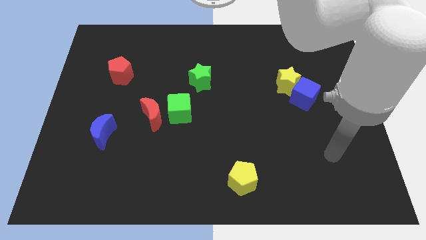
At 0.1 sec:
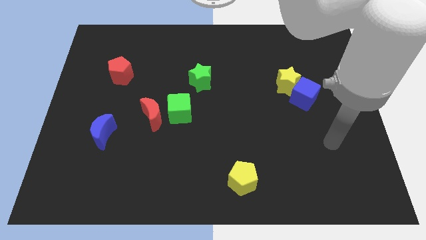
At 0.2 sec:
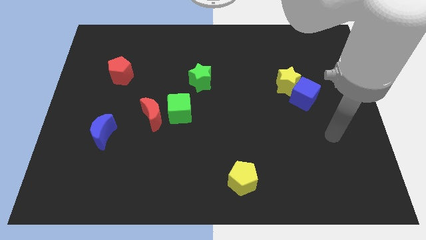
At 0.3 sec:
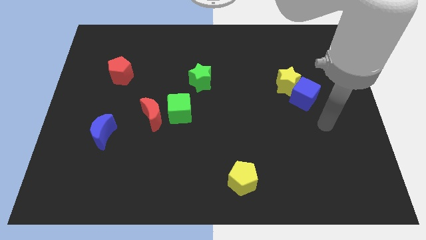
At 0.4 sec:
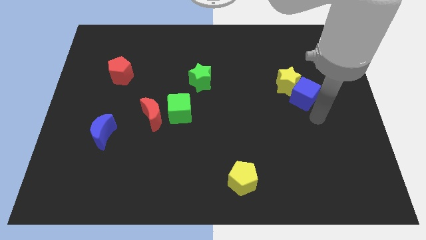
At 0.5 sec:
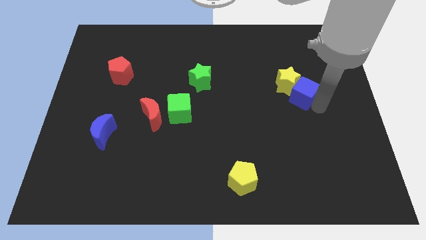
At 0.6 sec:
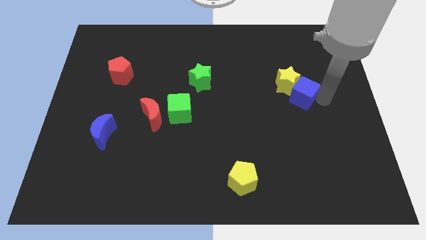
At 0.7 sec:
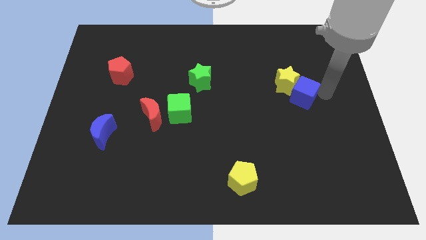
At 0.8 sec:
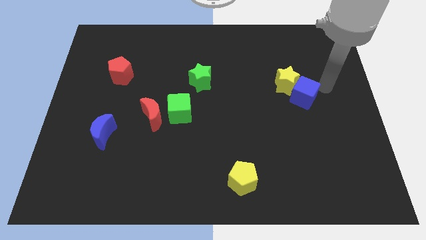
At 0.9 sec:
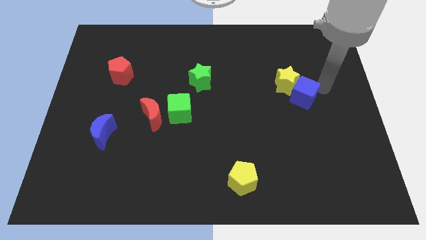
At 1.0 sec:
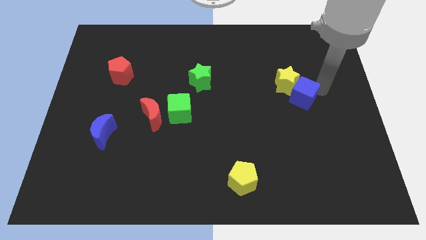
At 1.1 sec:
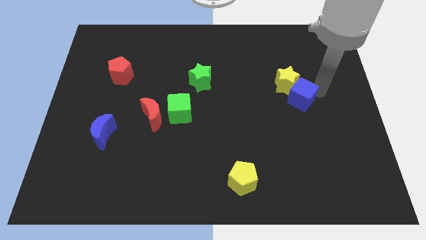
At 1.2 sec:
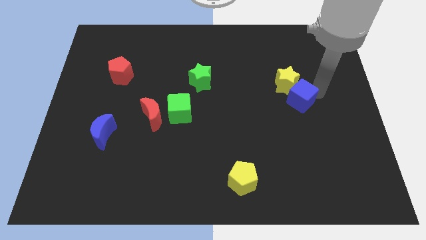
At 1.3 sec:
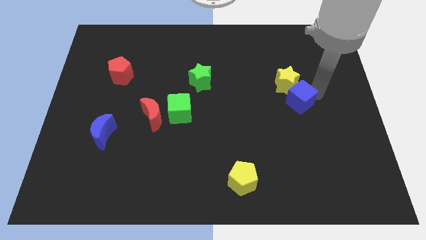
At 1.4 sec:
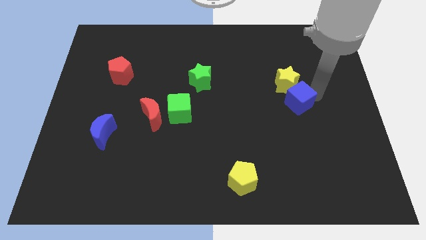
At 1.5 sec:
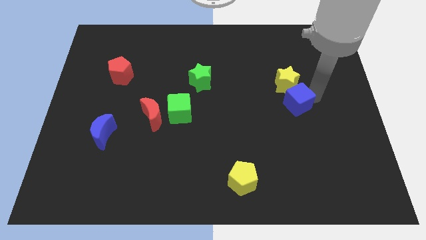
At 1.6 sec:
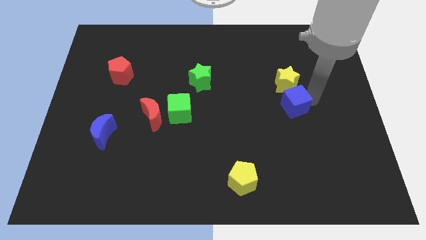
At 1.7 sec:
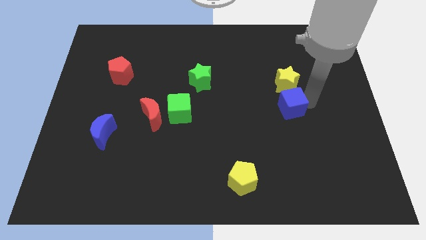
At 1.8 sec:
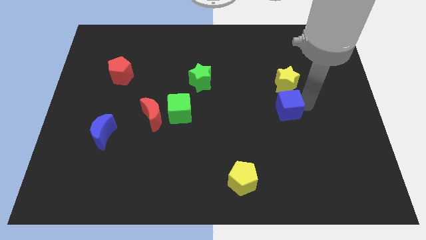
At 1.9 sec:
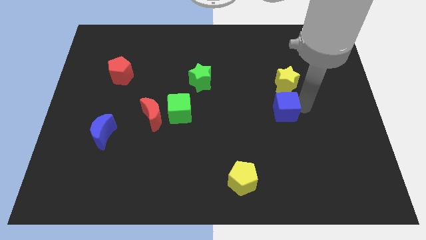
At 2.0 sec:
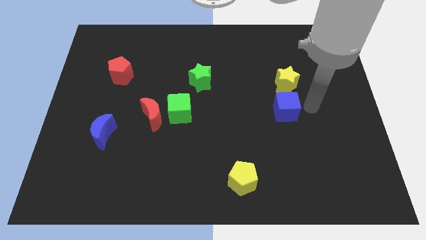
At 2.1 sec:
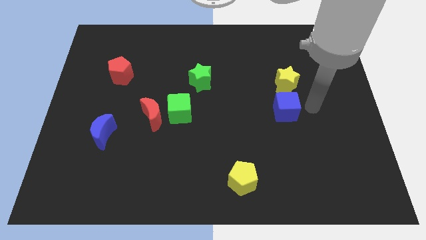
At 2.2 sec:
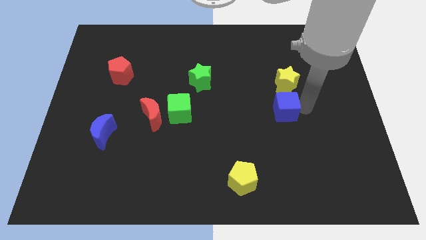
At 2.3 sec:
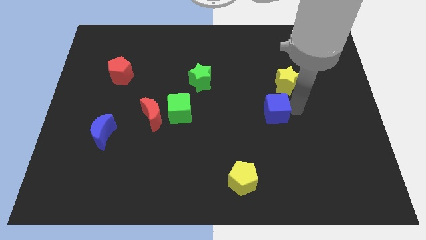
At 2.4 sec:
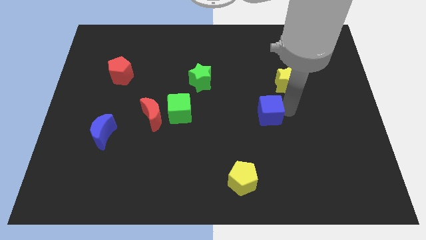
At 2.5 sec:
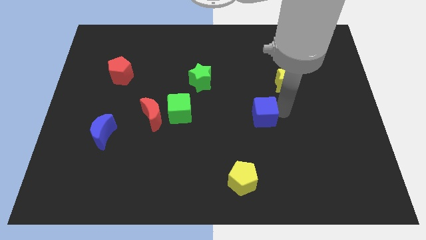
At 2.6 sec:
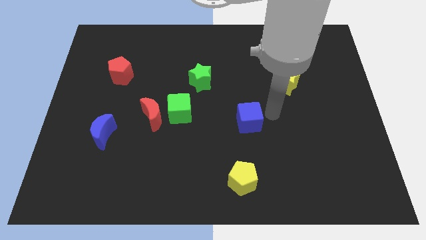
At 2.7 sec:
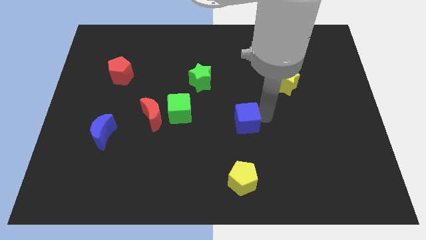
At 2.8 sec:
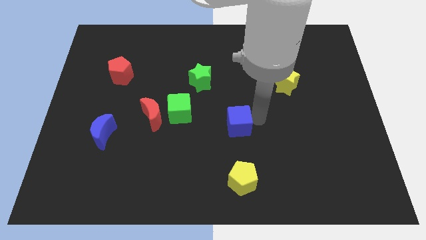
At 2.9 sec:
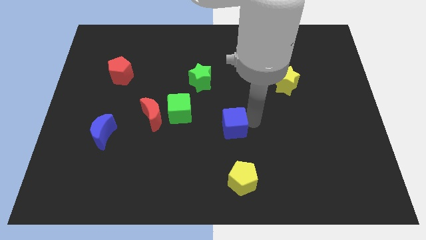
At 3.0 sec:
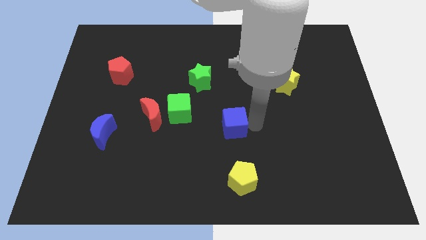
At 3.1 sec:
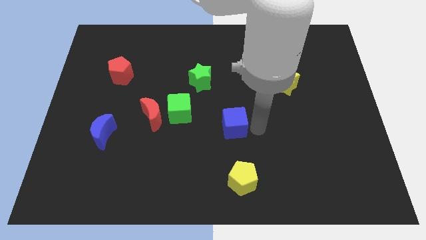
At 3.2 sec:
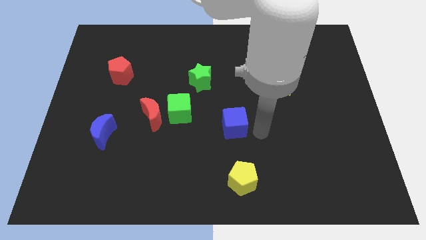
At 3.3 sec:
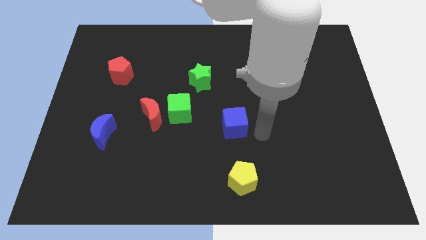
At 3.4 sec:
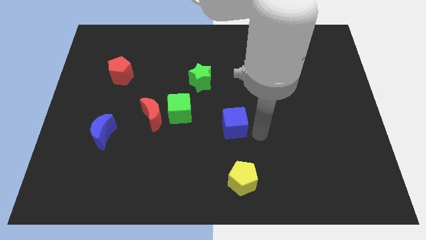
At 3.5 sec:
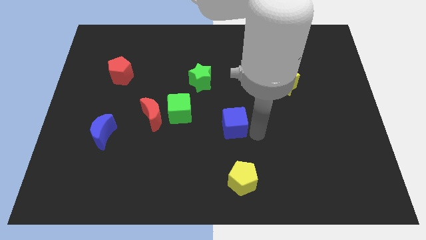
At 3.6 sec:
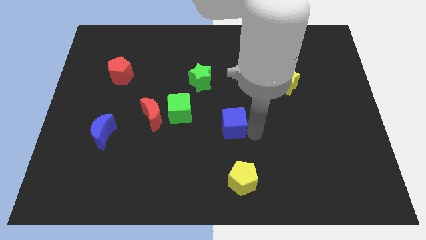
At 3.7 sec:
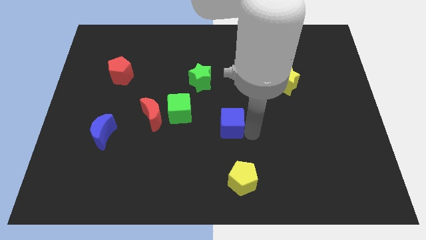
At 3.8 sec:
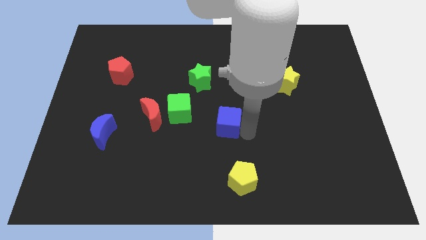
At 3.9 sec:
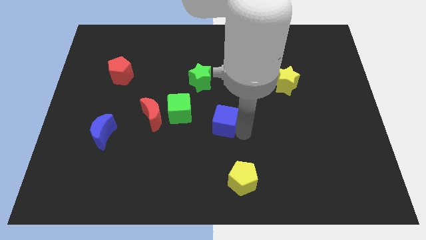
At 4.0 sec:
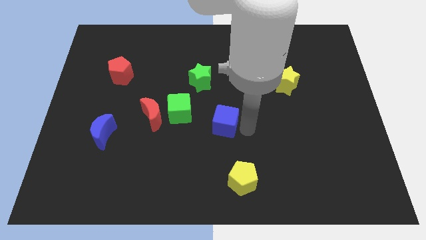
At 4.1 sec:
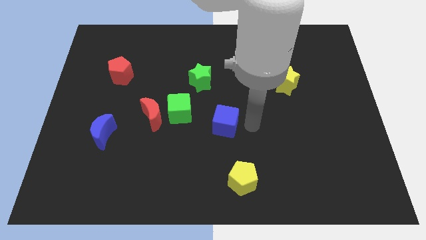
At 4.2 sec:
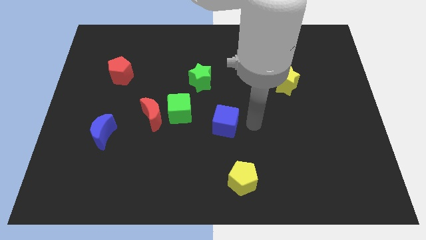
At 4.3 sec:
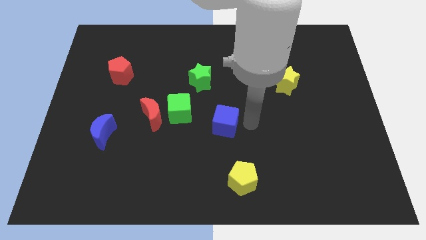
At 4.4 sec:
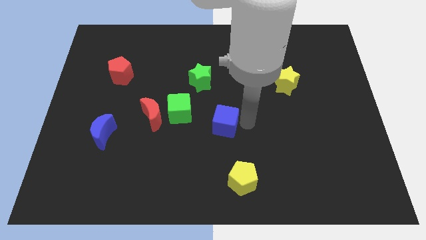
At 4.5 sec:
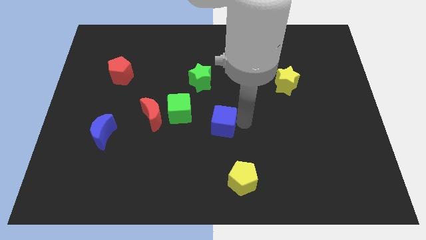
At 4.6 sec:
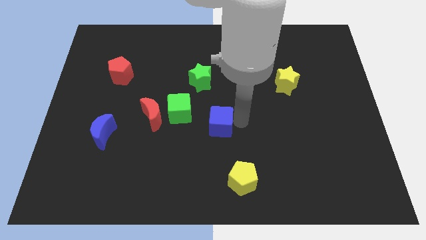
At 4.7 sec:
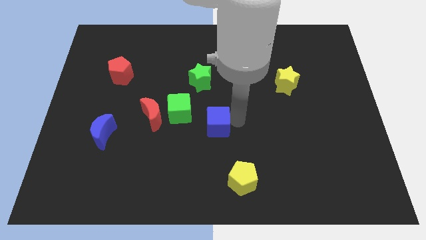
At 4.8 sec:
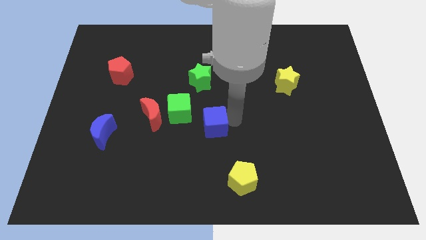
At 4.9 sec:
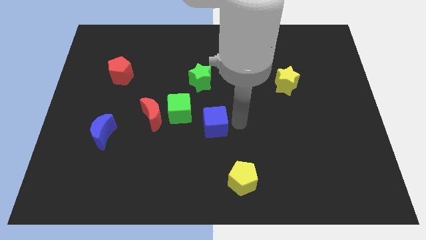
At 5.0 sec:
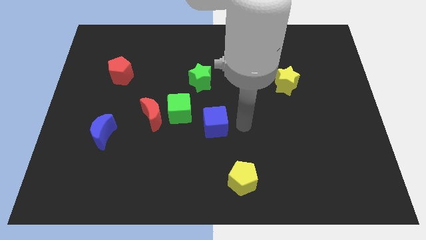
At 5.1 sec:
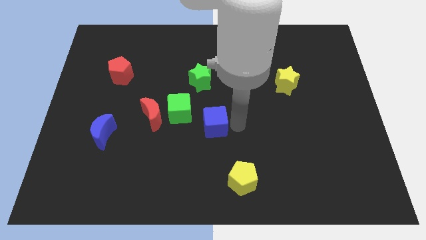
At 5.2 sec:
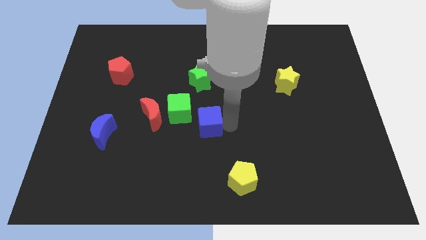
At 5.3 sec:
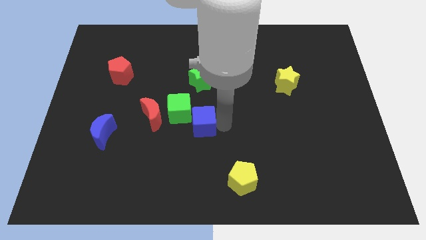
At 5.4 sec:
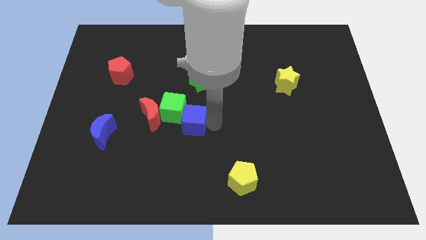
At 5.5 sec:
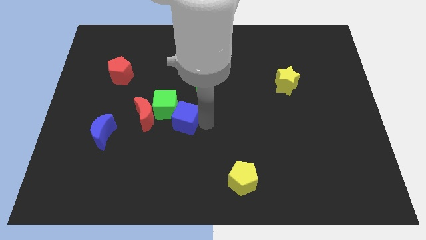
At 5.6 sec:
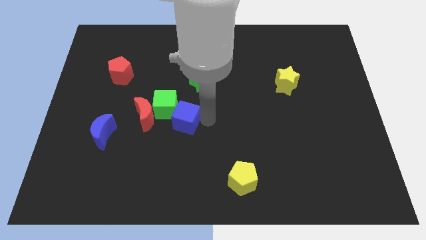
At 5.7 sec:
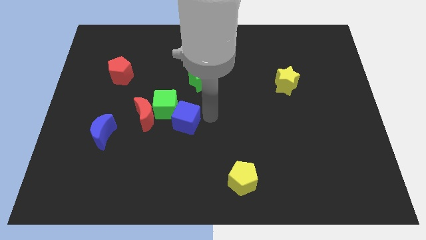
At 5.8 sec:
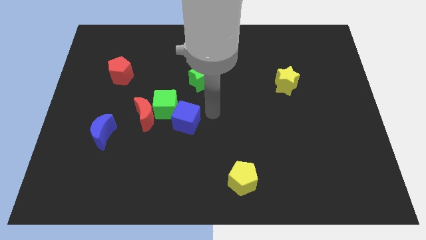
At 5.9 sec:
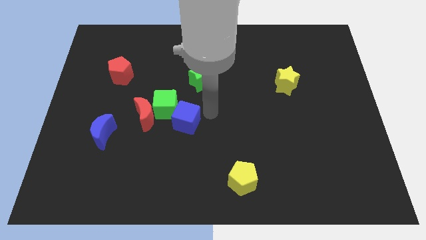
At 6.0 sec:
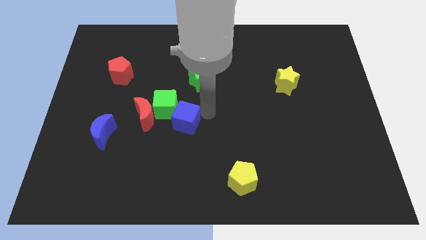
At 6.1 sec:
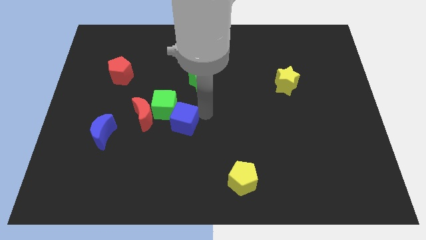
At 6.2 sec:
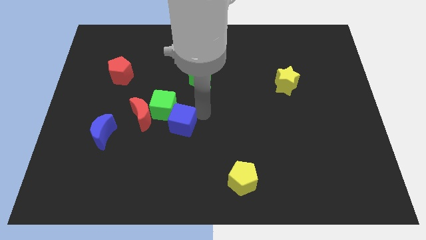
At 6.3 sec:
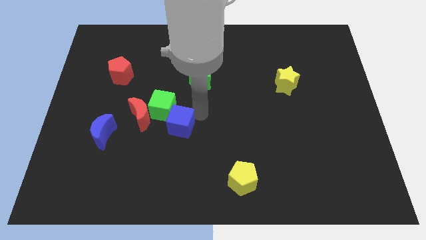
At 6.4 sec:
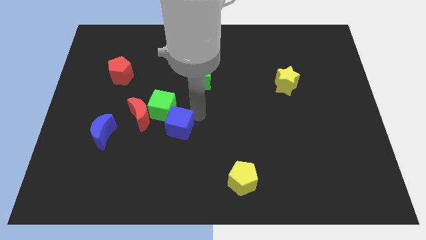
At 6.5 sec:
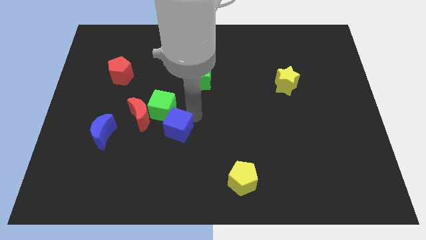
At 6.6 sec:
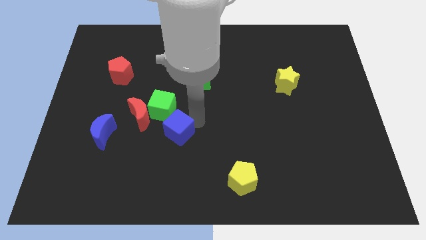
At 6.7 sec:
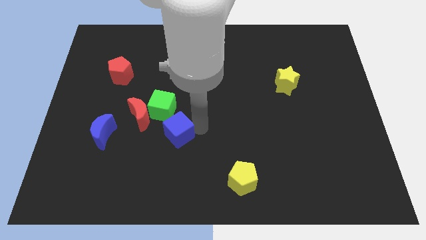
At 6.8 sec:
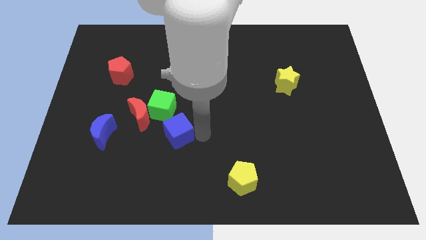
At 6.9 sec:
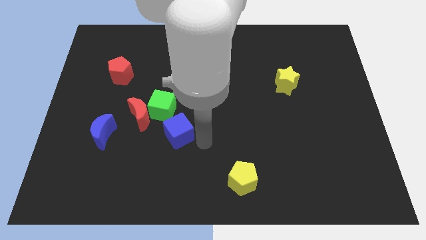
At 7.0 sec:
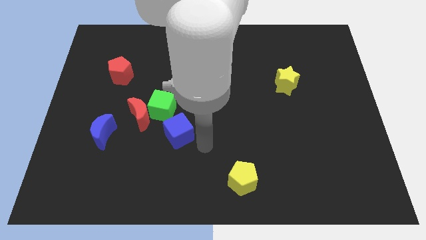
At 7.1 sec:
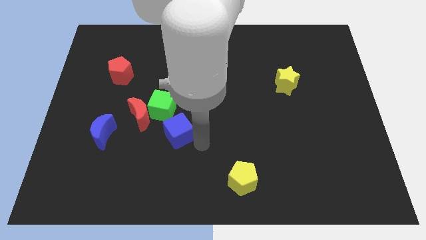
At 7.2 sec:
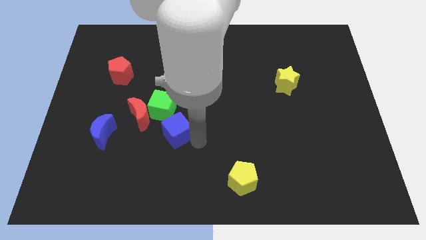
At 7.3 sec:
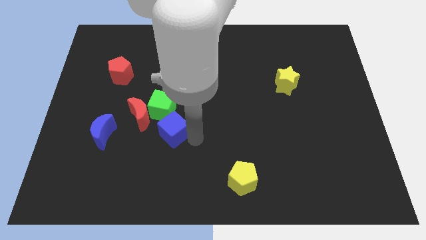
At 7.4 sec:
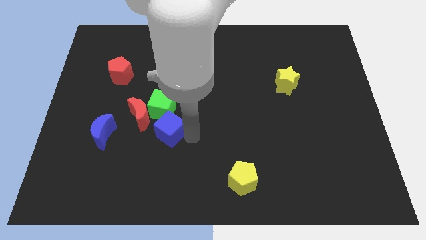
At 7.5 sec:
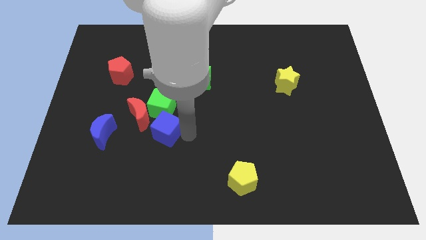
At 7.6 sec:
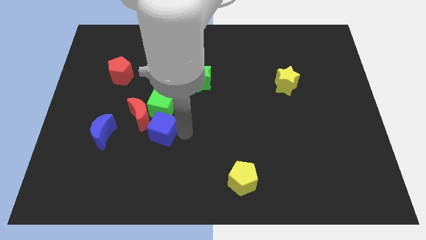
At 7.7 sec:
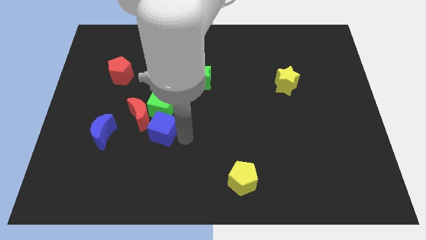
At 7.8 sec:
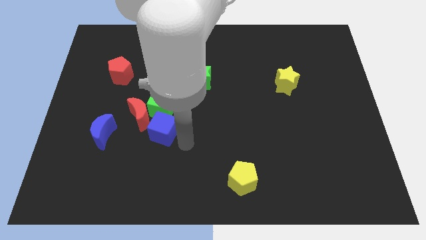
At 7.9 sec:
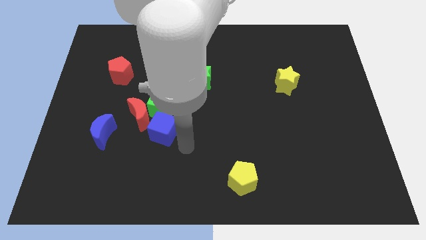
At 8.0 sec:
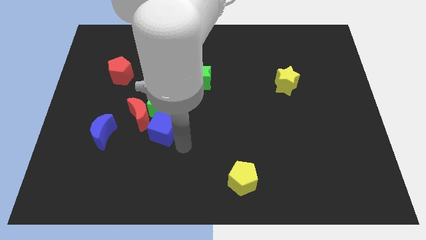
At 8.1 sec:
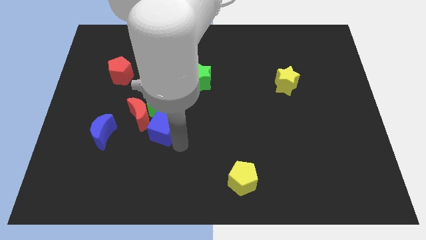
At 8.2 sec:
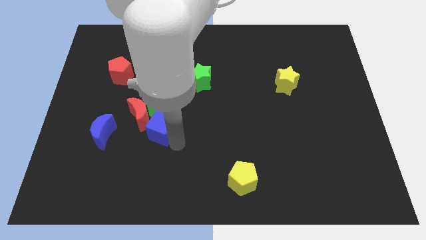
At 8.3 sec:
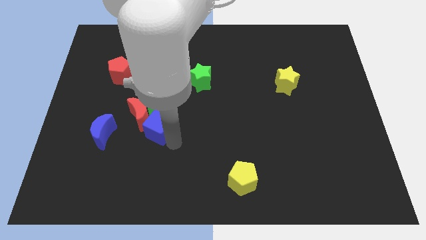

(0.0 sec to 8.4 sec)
push the blue cube close to the red moon
